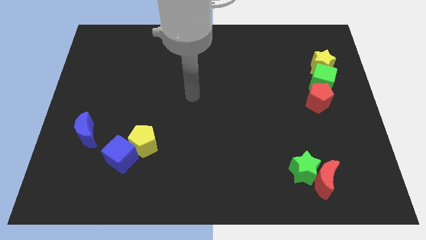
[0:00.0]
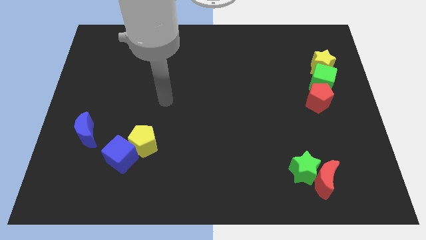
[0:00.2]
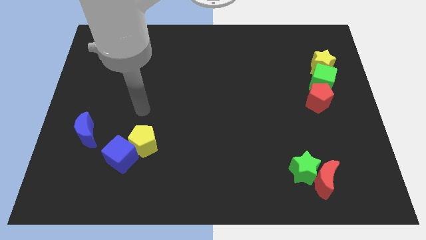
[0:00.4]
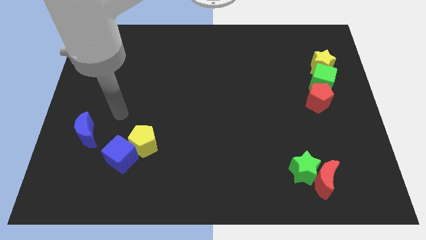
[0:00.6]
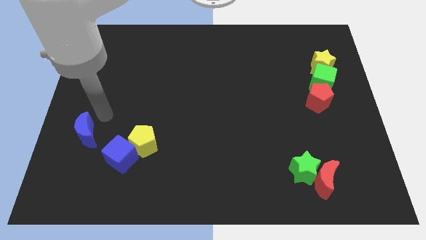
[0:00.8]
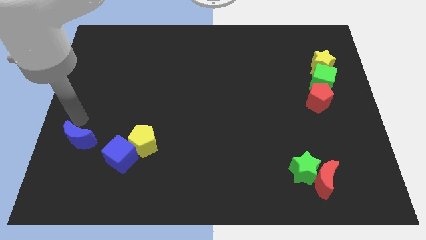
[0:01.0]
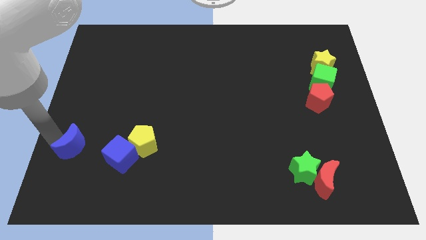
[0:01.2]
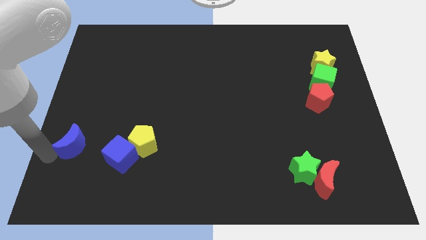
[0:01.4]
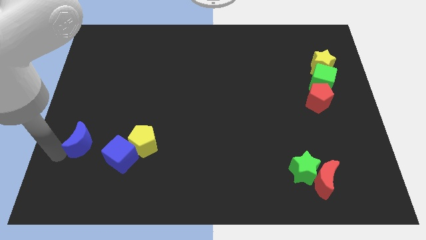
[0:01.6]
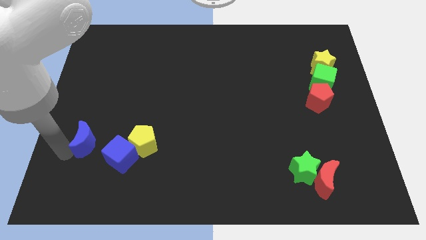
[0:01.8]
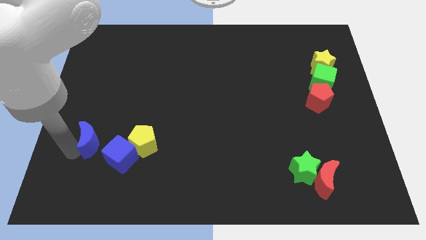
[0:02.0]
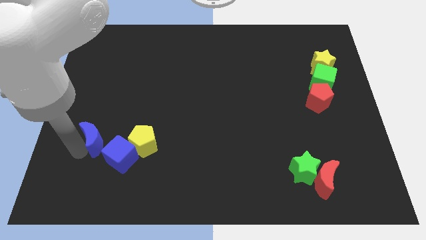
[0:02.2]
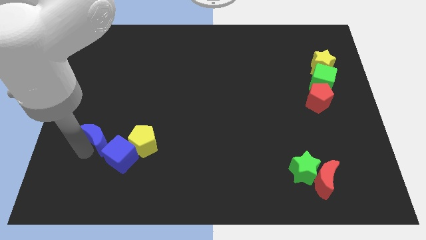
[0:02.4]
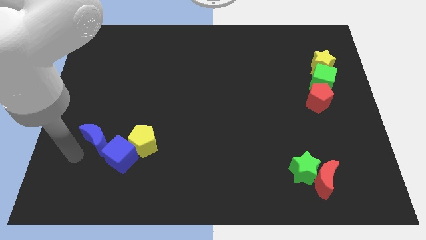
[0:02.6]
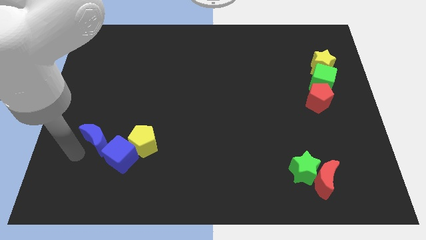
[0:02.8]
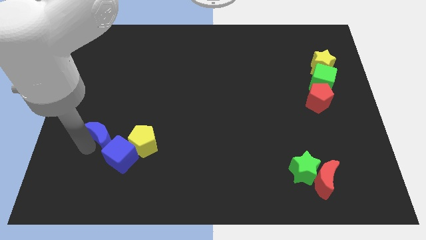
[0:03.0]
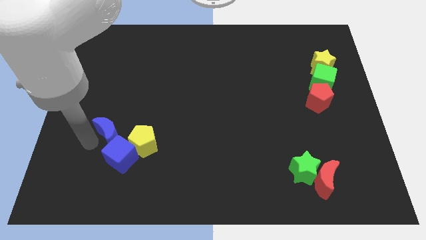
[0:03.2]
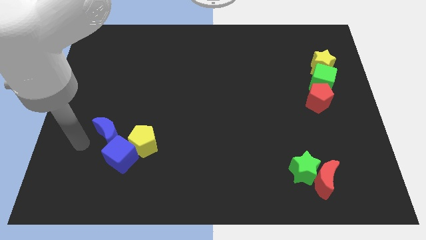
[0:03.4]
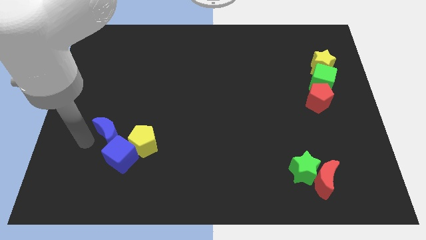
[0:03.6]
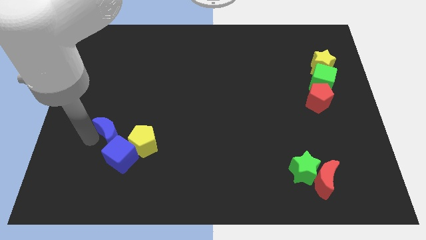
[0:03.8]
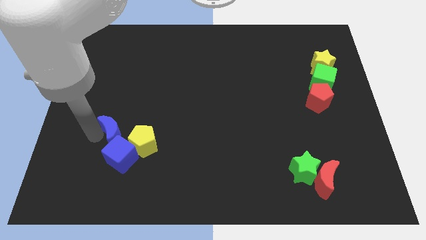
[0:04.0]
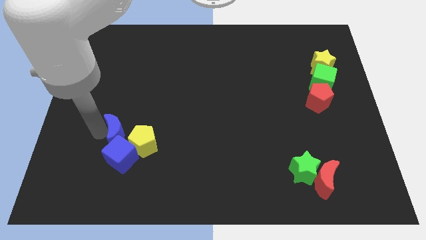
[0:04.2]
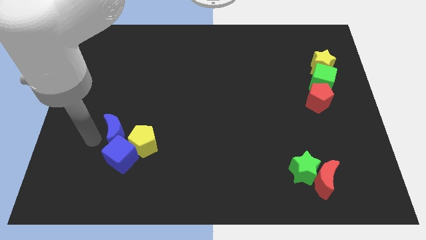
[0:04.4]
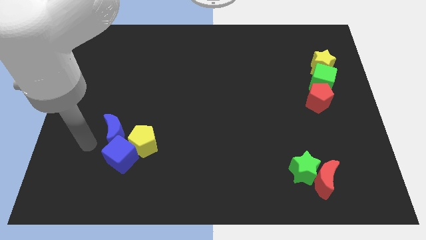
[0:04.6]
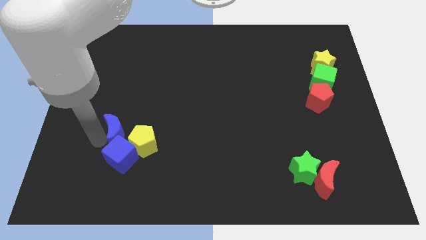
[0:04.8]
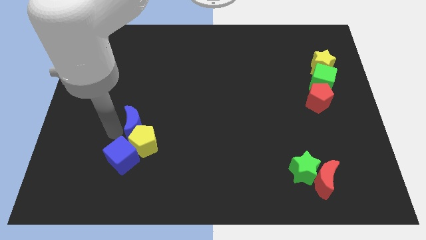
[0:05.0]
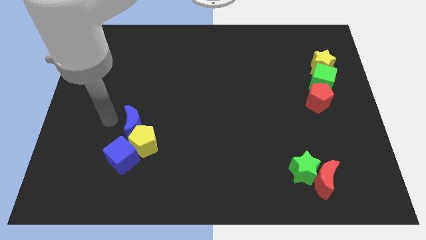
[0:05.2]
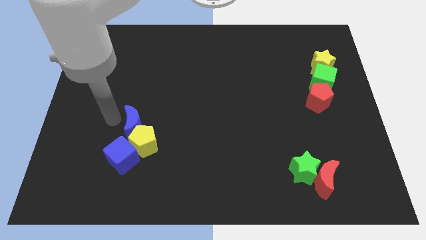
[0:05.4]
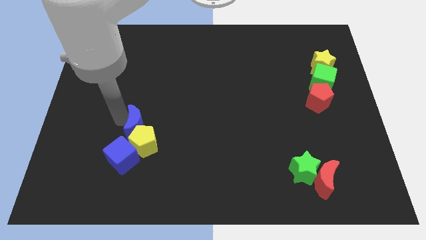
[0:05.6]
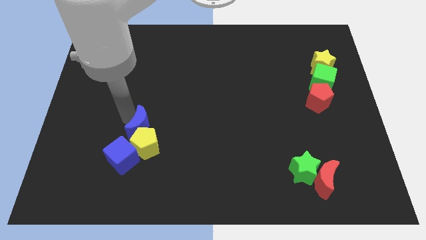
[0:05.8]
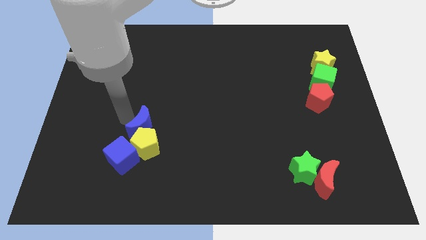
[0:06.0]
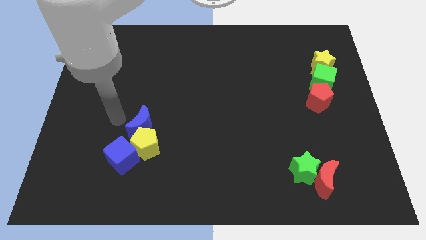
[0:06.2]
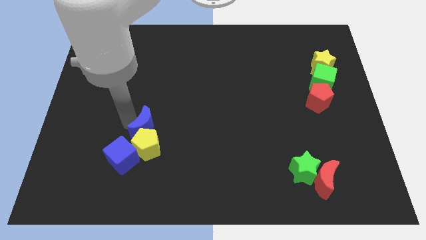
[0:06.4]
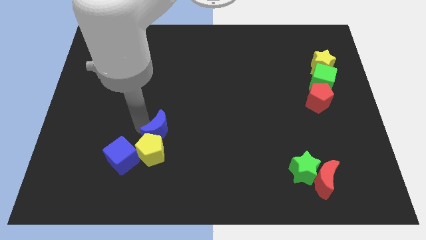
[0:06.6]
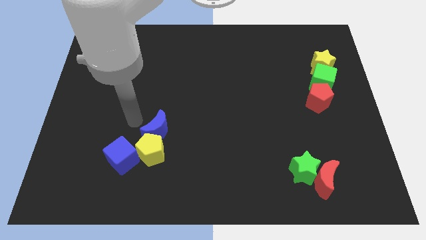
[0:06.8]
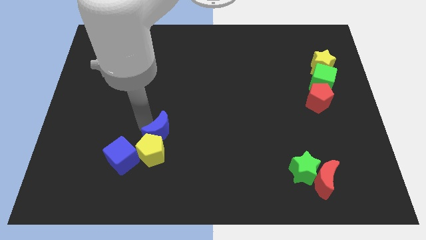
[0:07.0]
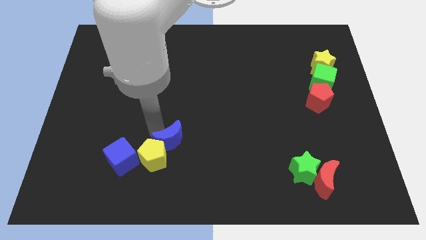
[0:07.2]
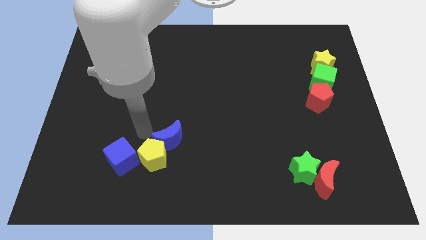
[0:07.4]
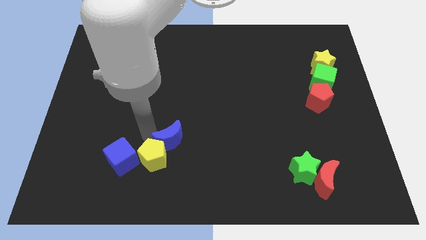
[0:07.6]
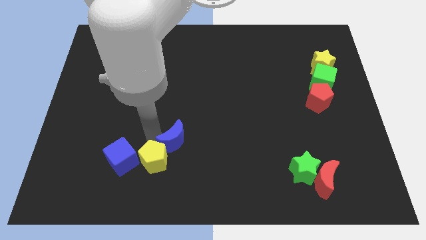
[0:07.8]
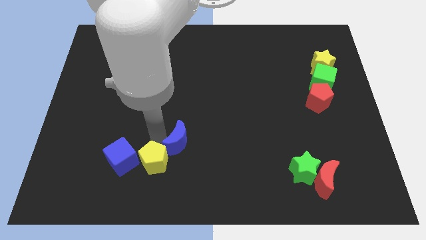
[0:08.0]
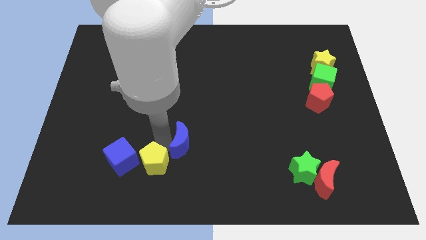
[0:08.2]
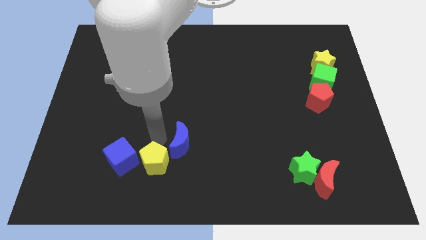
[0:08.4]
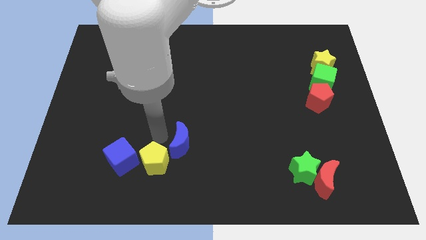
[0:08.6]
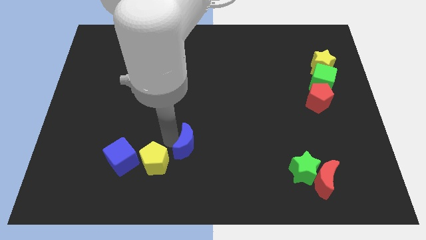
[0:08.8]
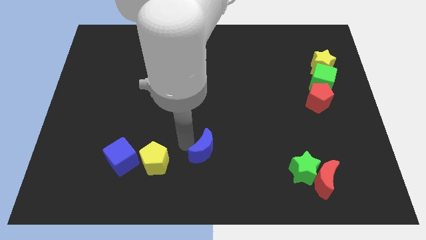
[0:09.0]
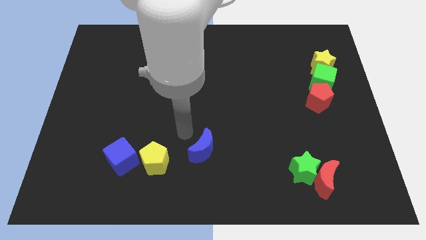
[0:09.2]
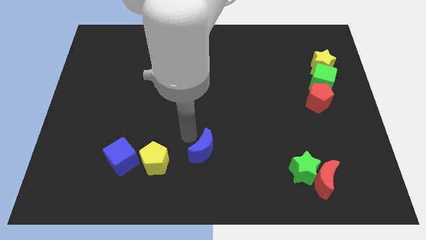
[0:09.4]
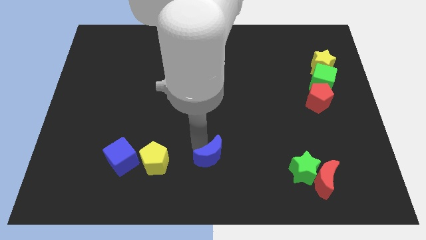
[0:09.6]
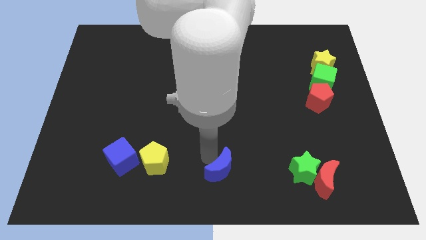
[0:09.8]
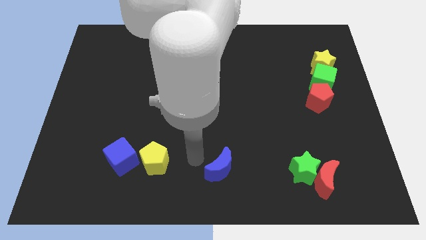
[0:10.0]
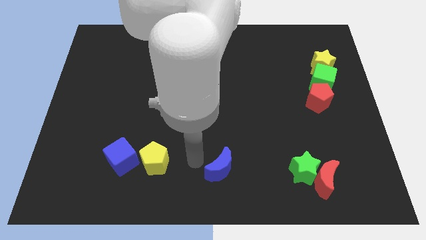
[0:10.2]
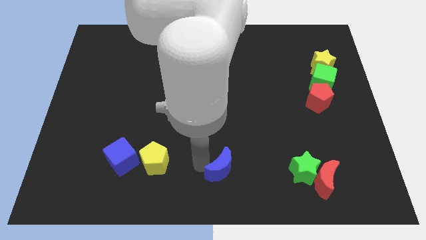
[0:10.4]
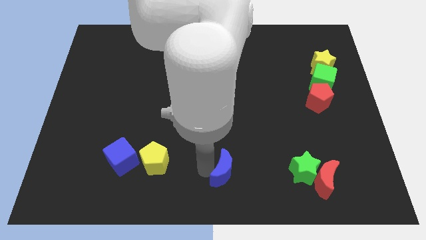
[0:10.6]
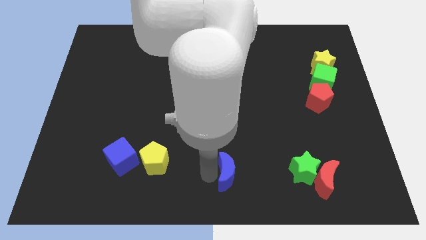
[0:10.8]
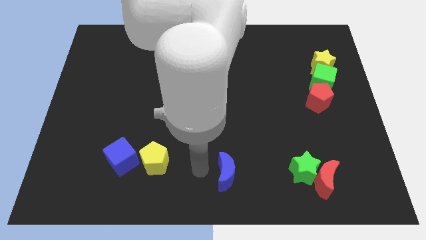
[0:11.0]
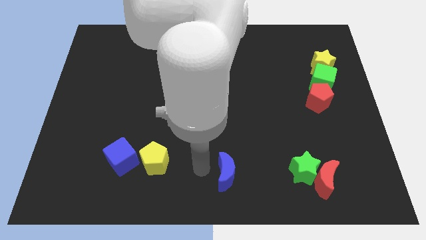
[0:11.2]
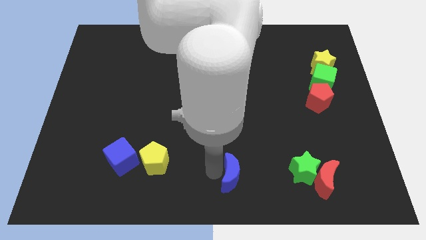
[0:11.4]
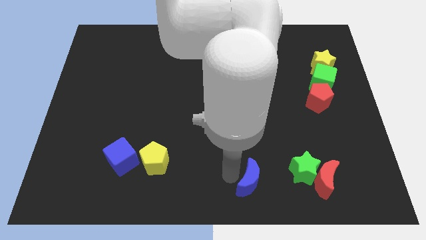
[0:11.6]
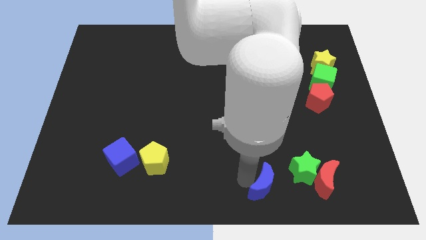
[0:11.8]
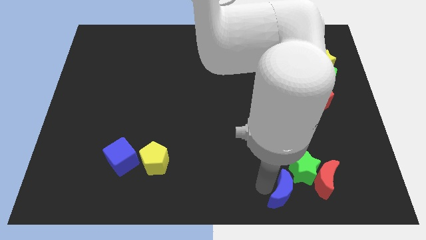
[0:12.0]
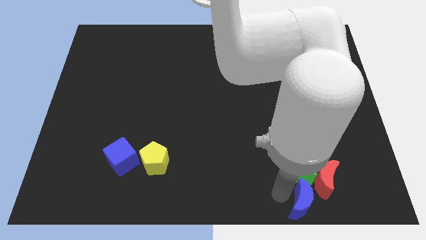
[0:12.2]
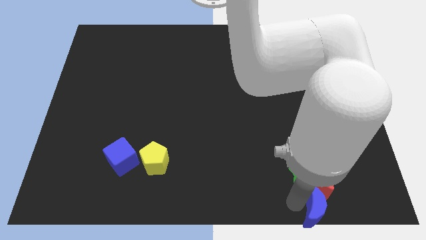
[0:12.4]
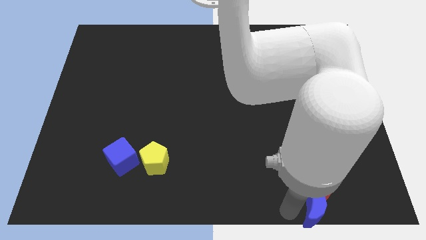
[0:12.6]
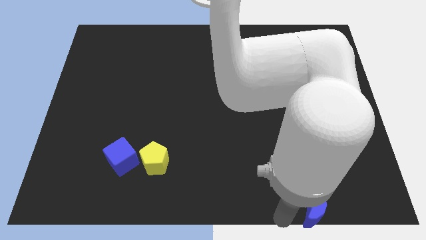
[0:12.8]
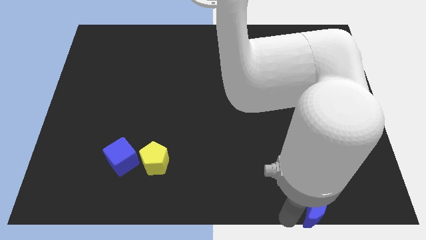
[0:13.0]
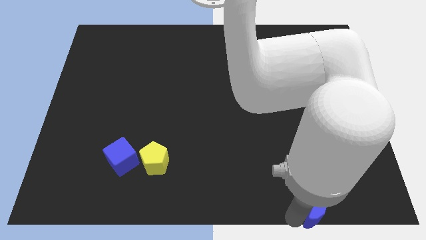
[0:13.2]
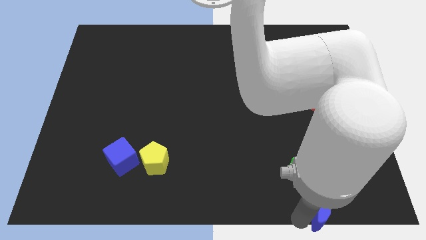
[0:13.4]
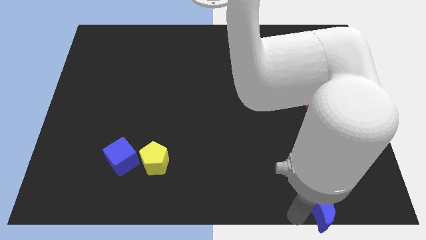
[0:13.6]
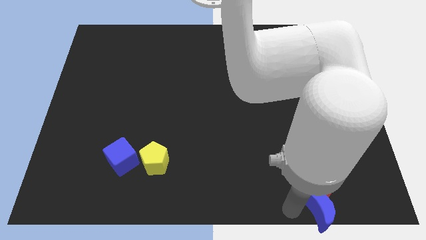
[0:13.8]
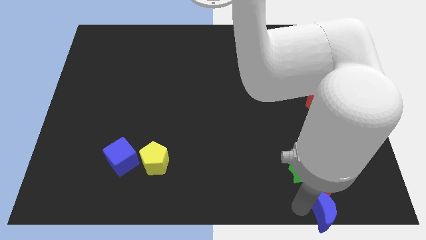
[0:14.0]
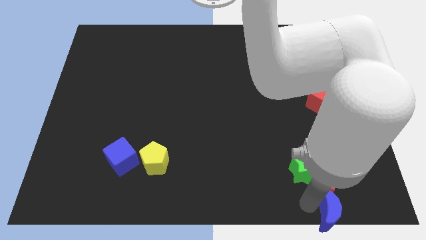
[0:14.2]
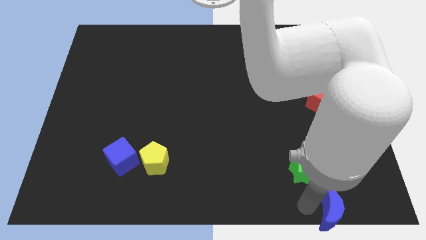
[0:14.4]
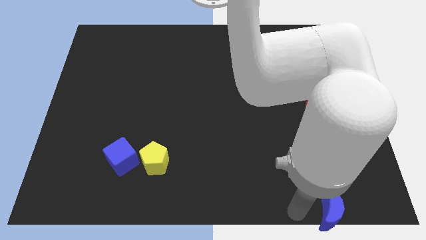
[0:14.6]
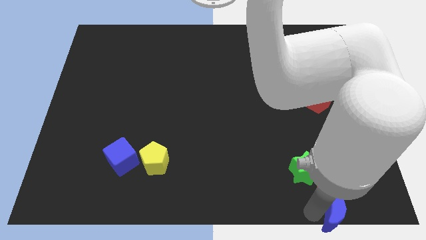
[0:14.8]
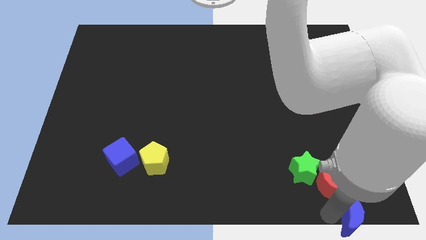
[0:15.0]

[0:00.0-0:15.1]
slide the blue moon to the lower right corner
